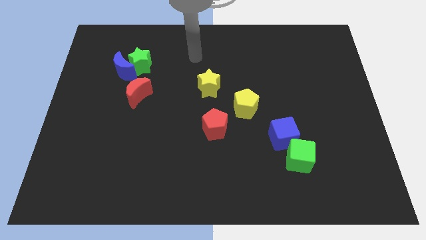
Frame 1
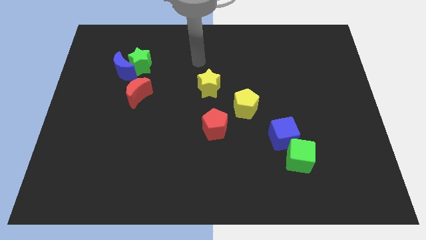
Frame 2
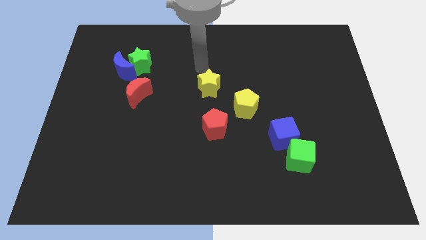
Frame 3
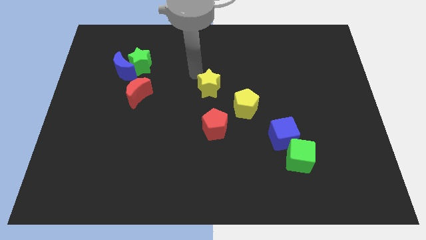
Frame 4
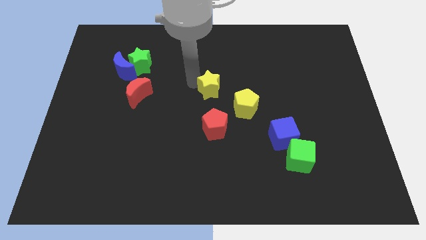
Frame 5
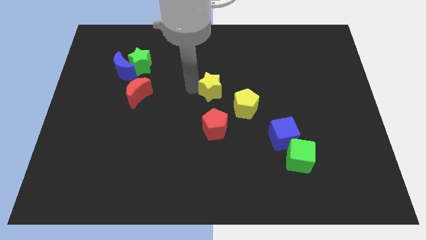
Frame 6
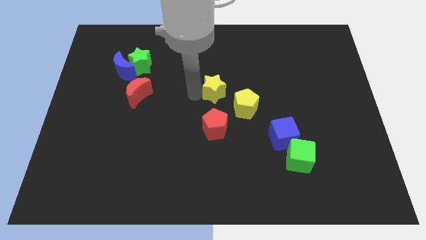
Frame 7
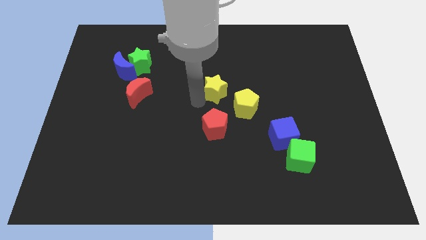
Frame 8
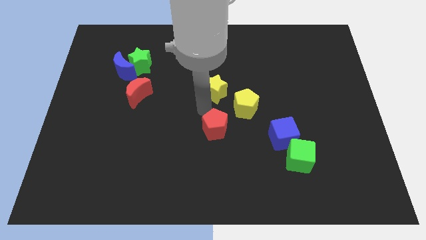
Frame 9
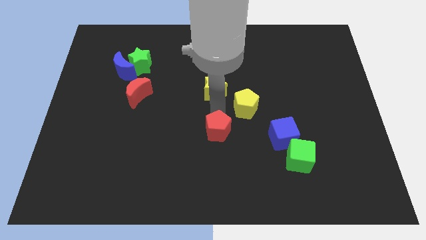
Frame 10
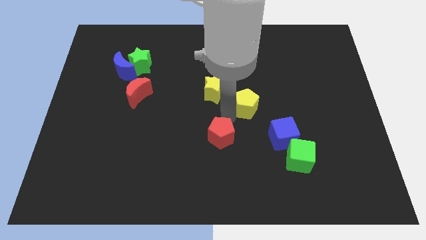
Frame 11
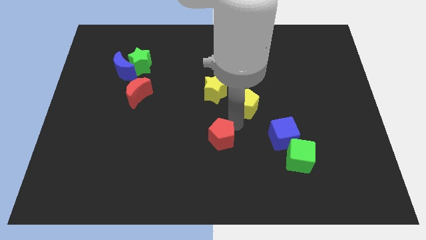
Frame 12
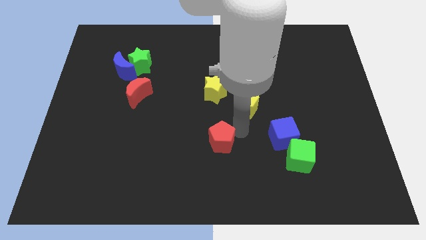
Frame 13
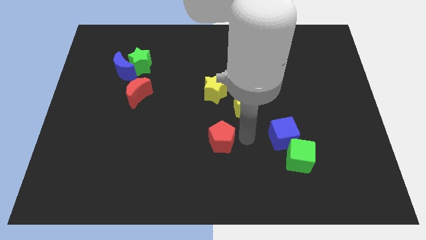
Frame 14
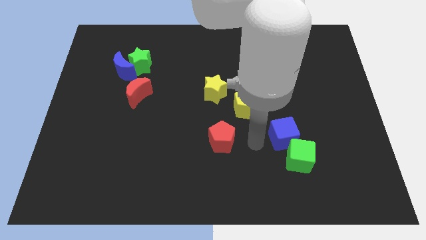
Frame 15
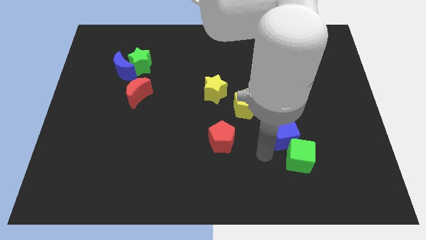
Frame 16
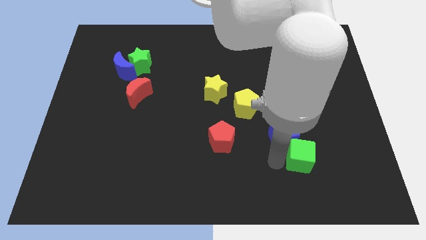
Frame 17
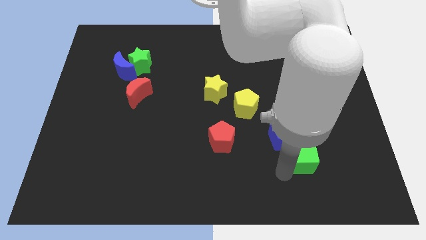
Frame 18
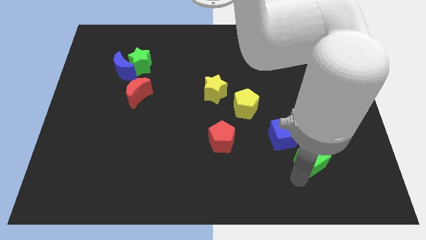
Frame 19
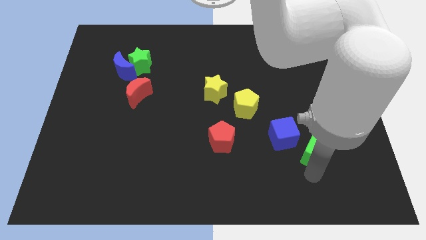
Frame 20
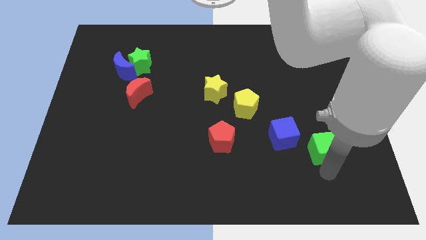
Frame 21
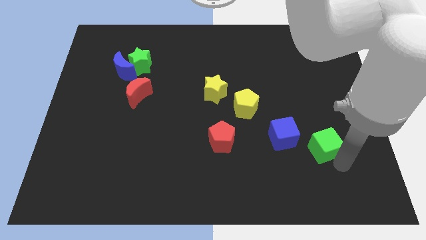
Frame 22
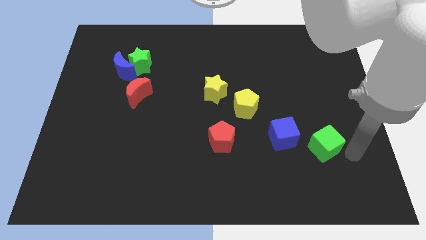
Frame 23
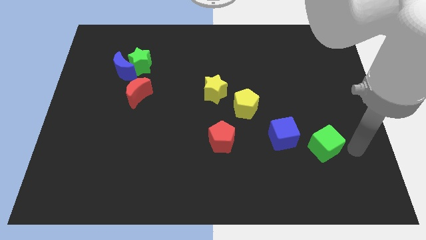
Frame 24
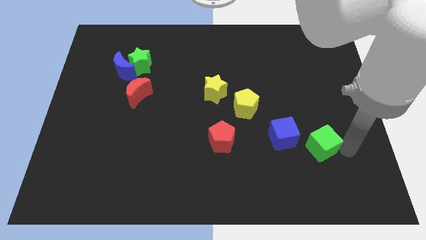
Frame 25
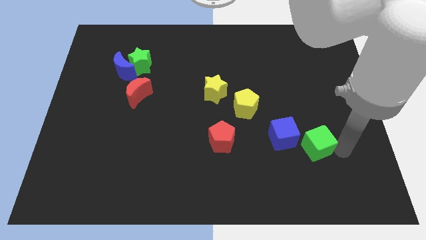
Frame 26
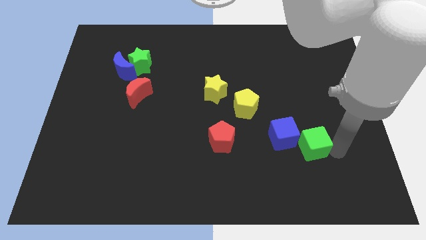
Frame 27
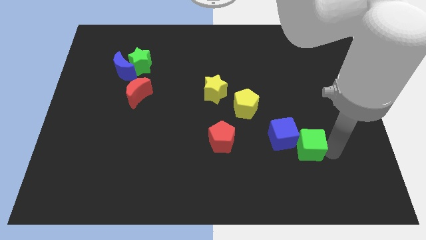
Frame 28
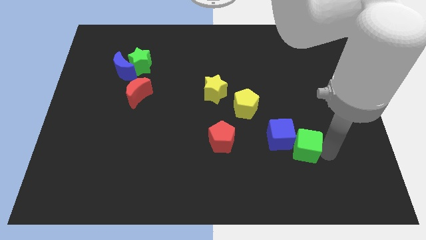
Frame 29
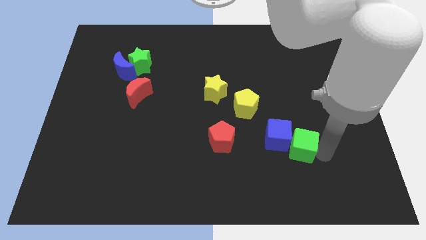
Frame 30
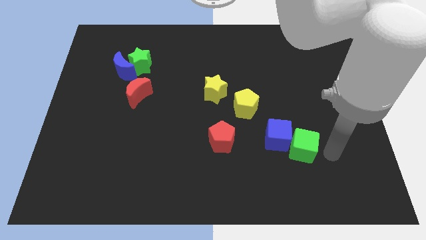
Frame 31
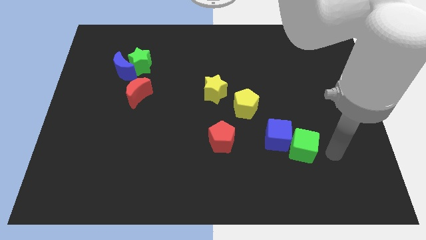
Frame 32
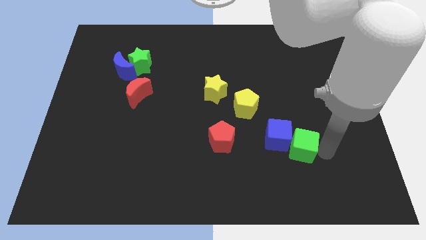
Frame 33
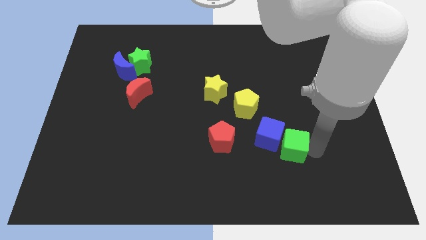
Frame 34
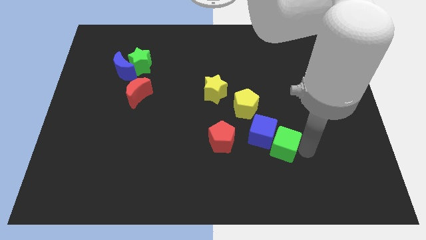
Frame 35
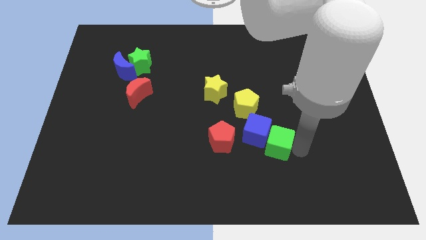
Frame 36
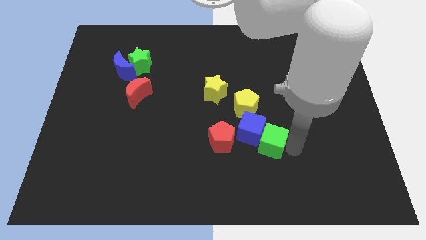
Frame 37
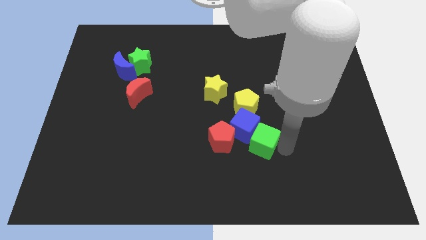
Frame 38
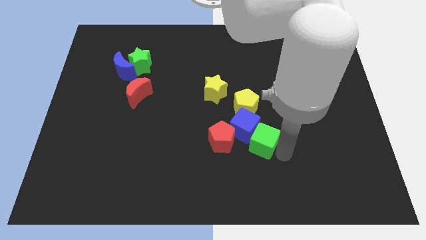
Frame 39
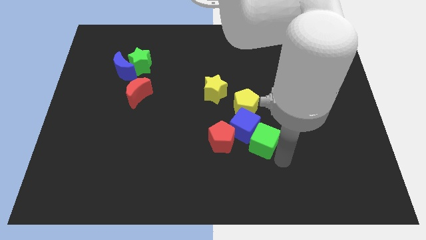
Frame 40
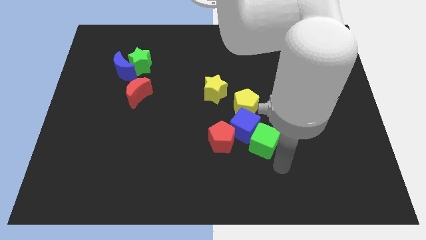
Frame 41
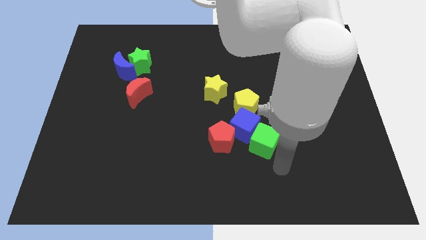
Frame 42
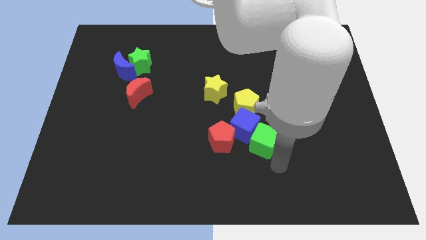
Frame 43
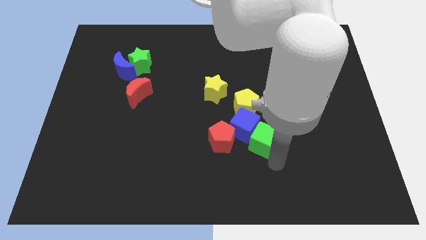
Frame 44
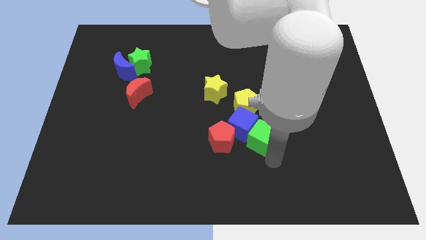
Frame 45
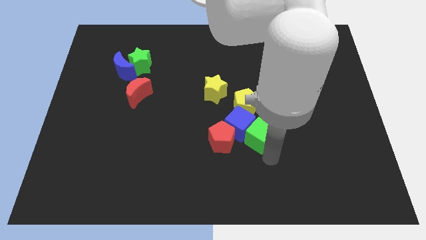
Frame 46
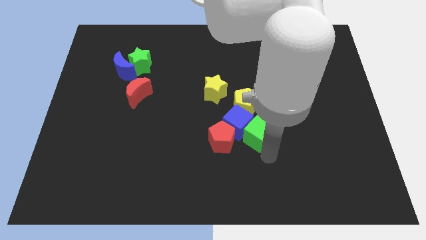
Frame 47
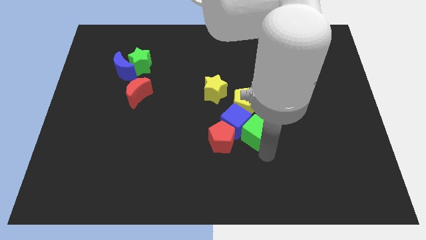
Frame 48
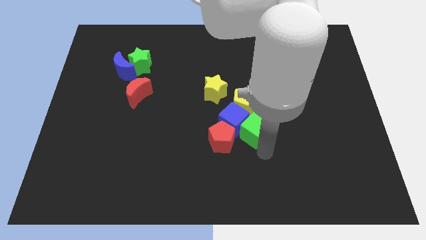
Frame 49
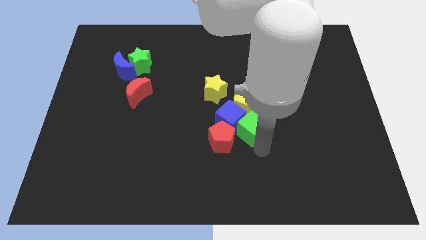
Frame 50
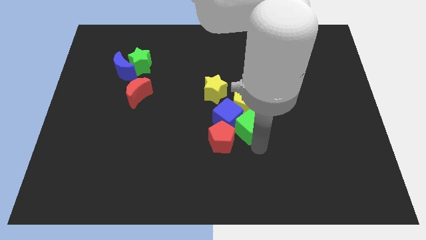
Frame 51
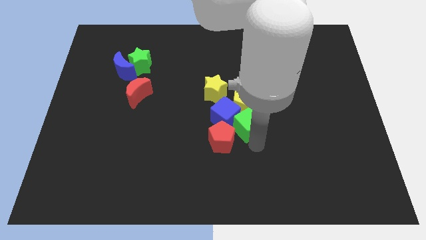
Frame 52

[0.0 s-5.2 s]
push the green cube towards the yellow pentagon

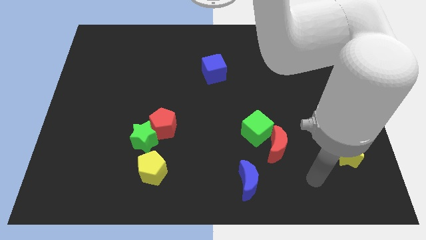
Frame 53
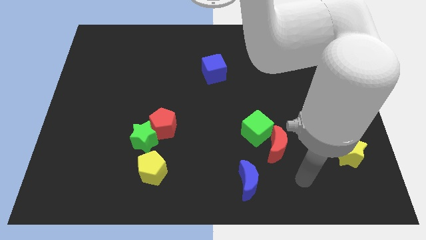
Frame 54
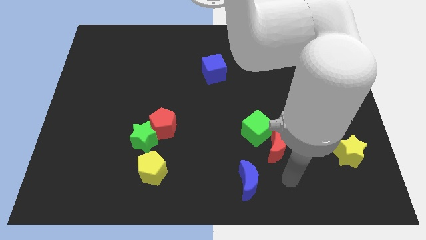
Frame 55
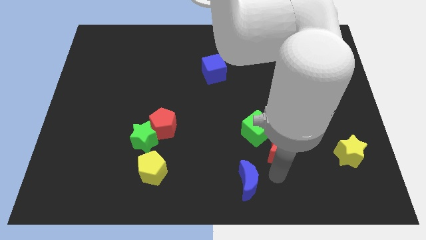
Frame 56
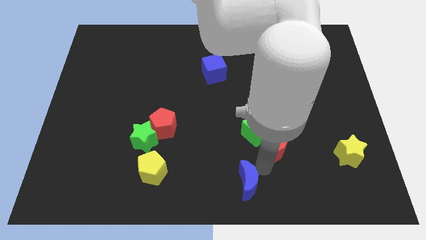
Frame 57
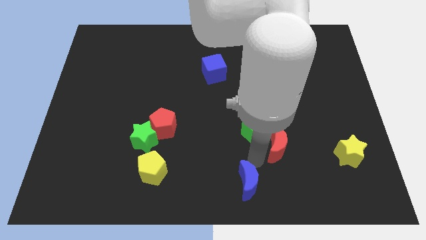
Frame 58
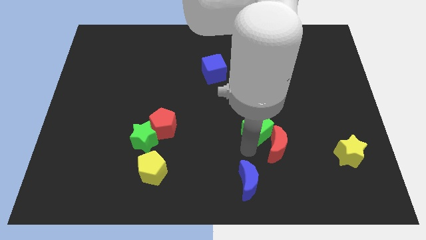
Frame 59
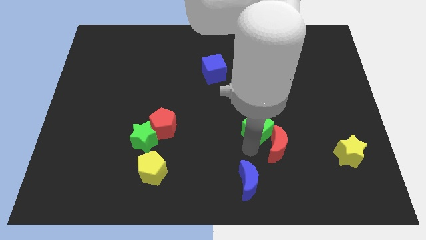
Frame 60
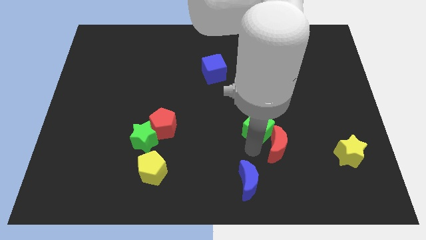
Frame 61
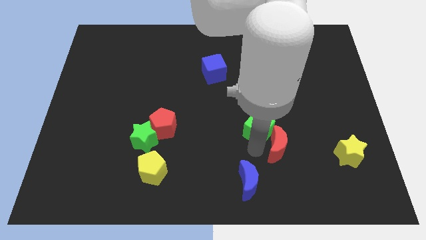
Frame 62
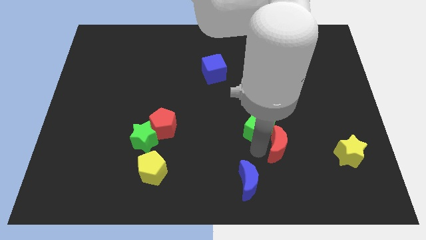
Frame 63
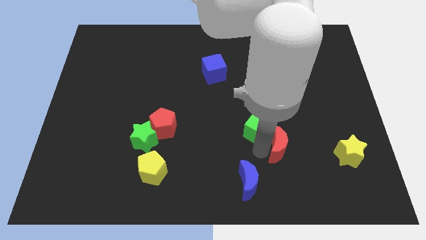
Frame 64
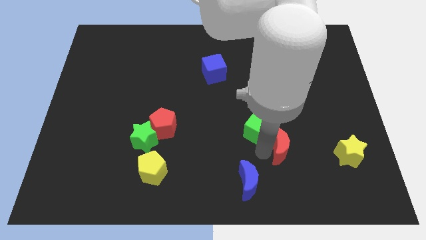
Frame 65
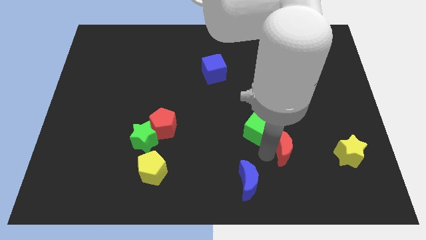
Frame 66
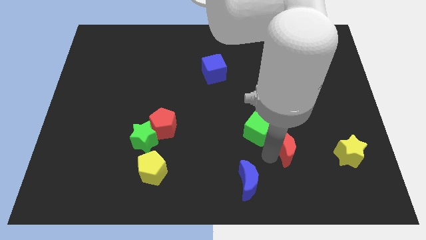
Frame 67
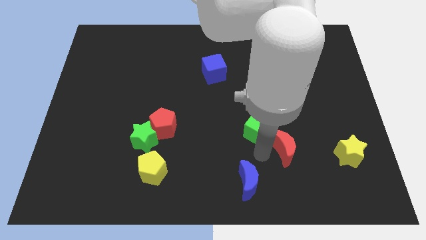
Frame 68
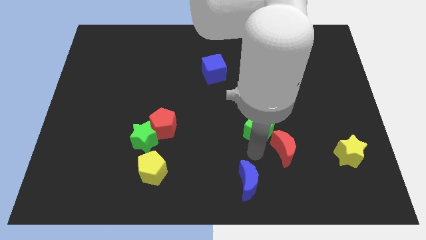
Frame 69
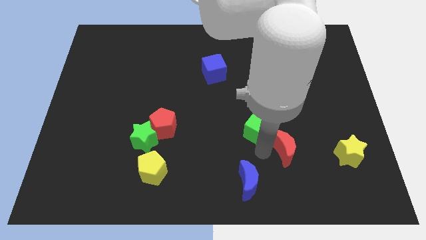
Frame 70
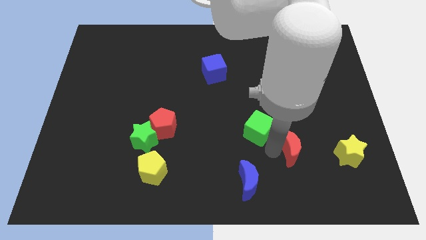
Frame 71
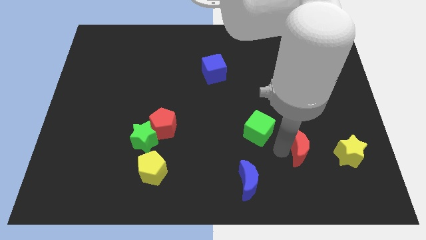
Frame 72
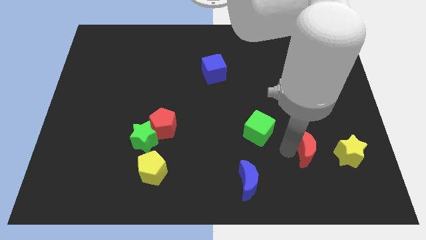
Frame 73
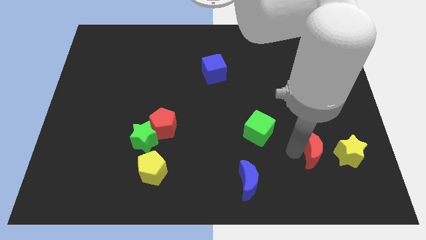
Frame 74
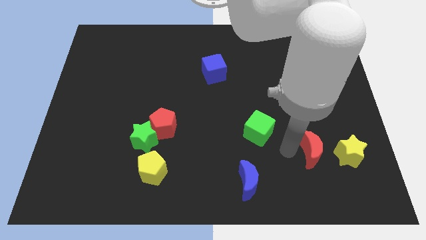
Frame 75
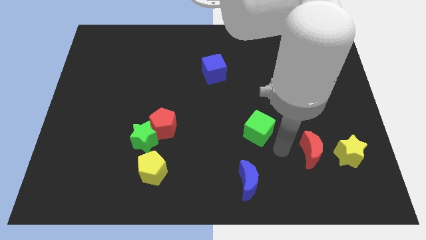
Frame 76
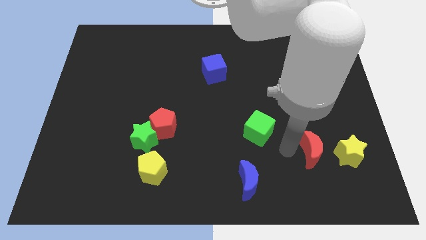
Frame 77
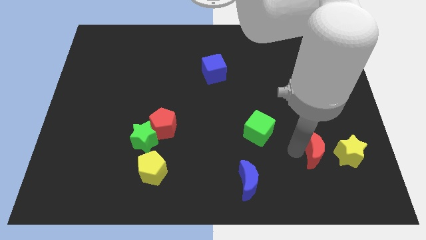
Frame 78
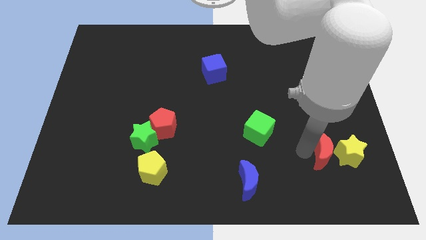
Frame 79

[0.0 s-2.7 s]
put the red moon next to the yellow star
